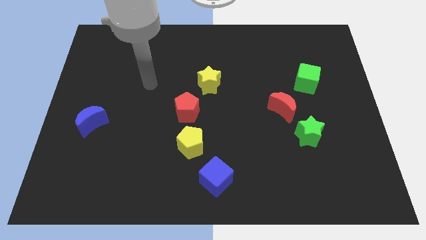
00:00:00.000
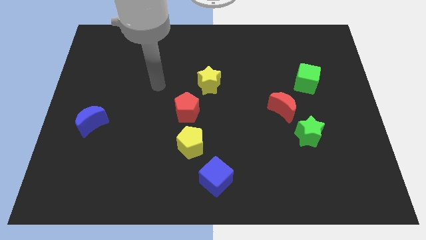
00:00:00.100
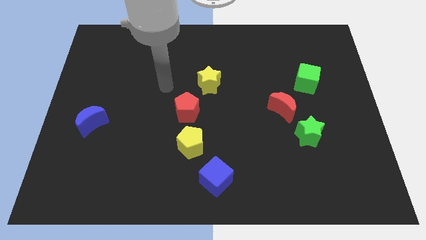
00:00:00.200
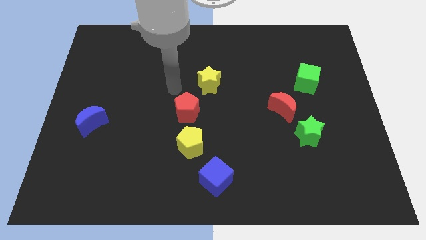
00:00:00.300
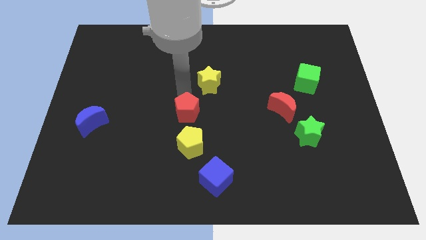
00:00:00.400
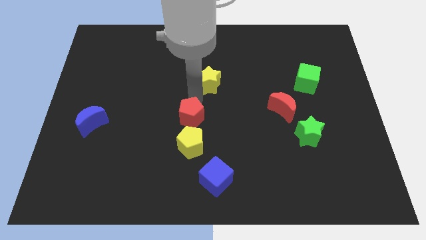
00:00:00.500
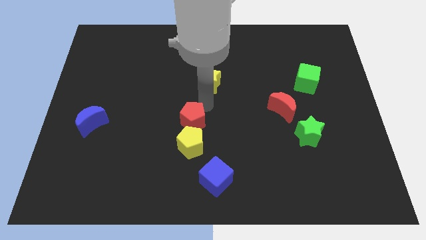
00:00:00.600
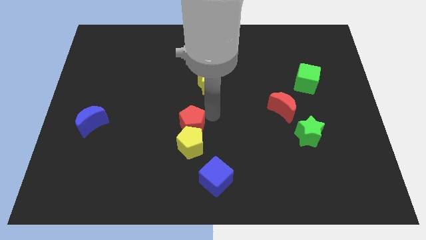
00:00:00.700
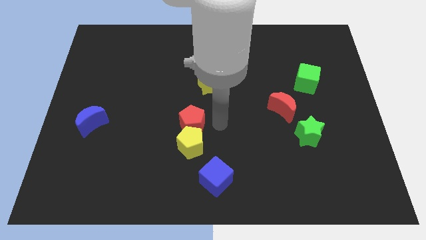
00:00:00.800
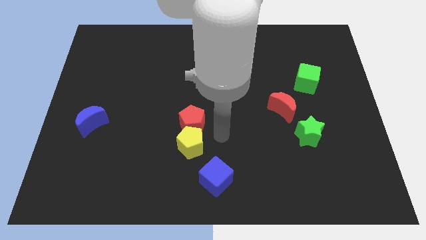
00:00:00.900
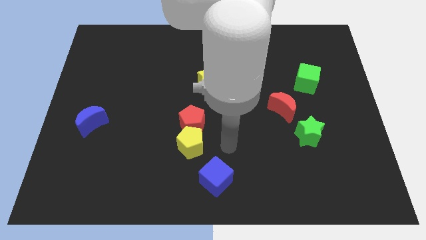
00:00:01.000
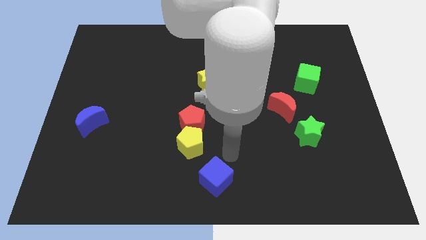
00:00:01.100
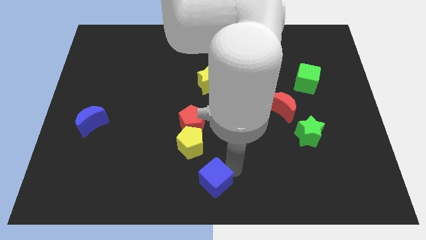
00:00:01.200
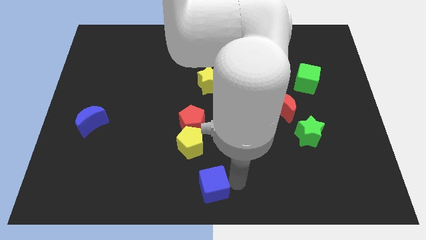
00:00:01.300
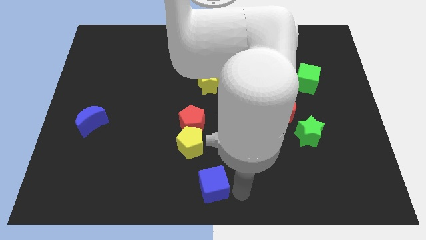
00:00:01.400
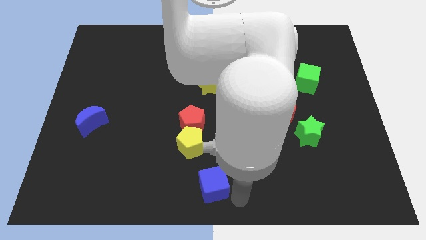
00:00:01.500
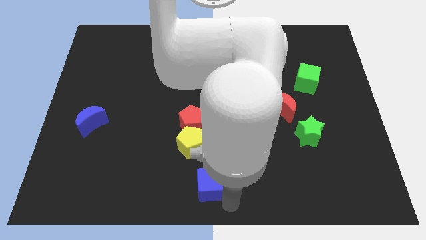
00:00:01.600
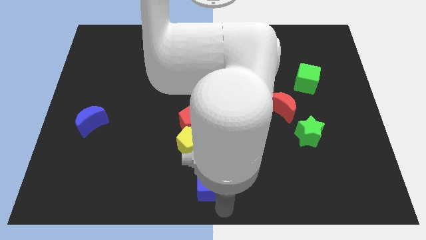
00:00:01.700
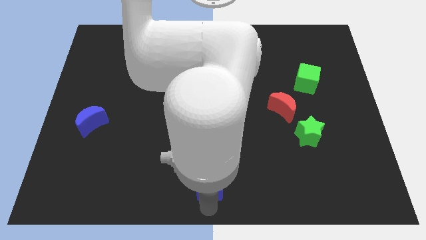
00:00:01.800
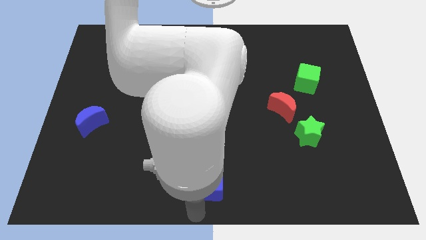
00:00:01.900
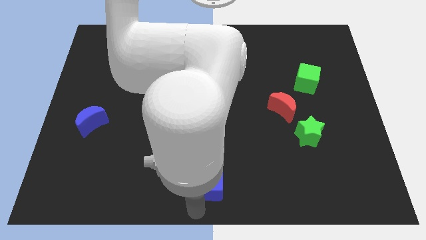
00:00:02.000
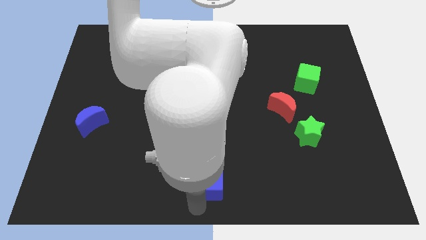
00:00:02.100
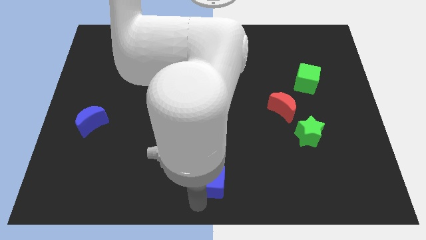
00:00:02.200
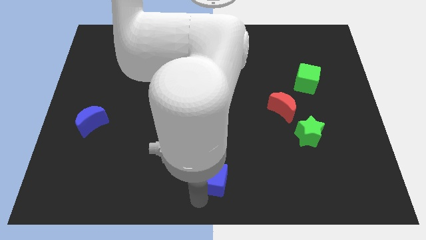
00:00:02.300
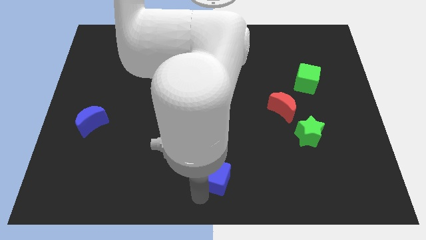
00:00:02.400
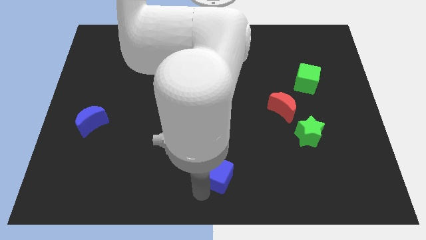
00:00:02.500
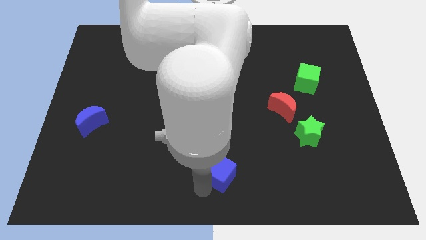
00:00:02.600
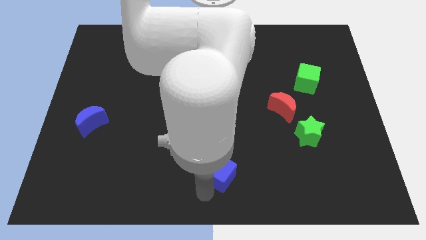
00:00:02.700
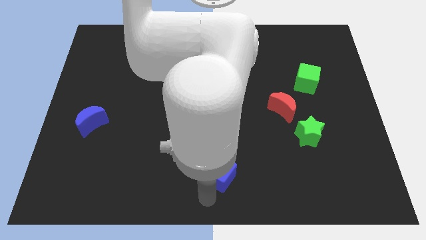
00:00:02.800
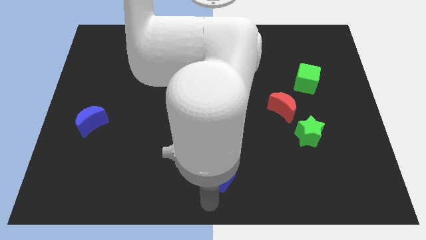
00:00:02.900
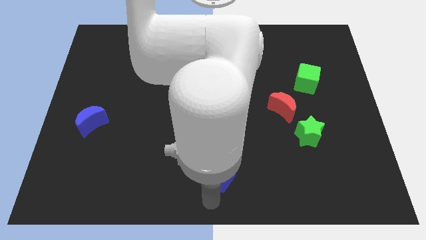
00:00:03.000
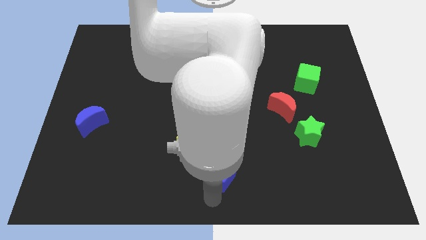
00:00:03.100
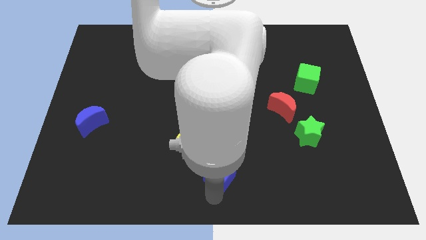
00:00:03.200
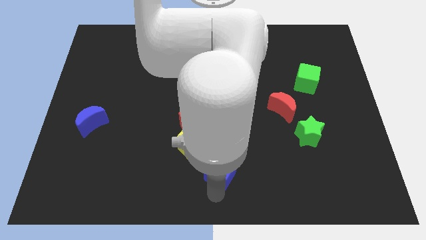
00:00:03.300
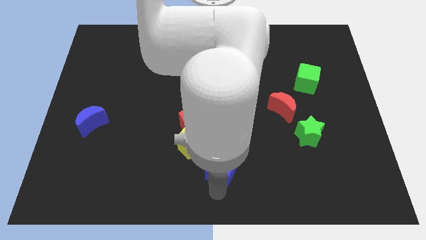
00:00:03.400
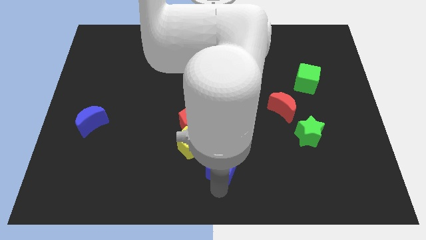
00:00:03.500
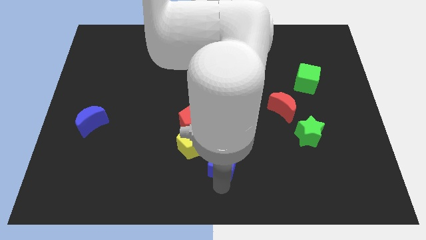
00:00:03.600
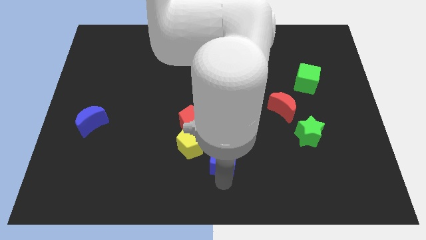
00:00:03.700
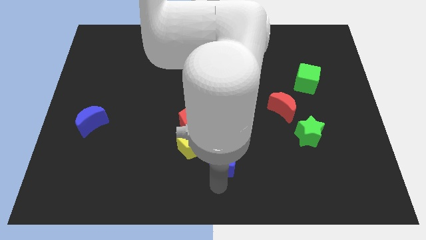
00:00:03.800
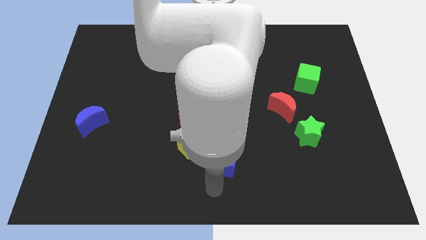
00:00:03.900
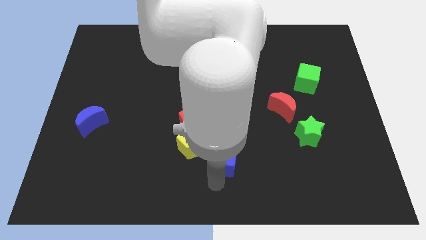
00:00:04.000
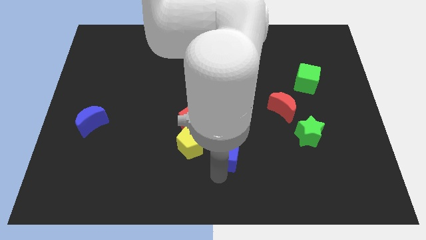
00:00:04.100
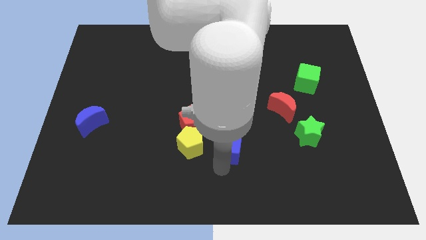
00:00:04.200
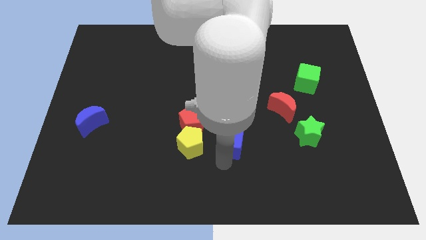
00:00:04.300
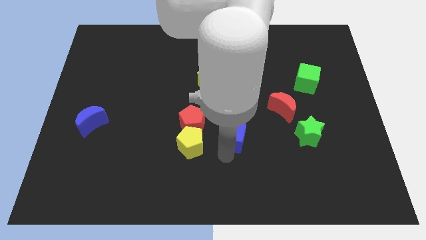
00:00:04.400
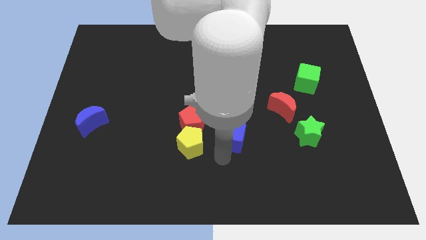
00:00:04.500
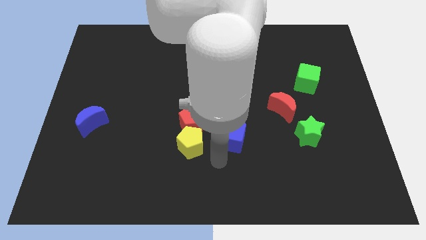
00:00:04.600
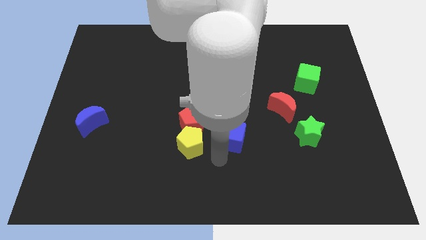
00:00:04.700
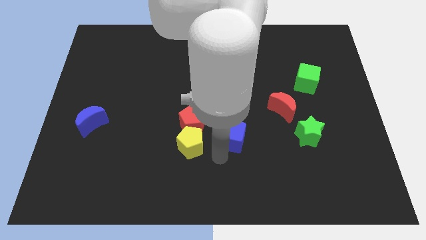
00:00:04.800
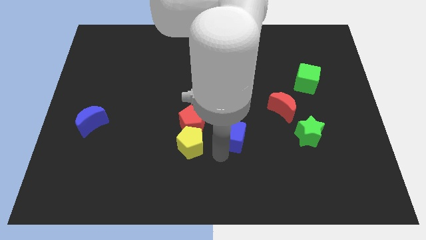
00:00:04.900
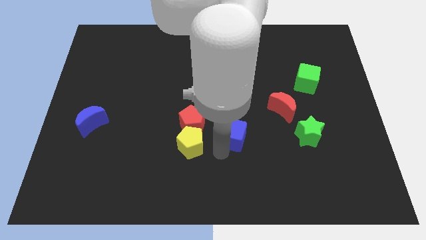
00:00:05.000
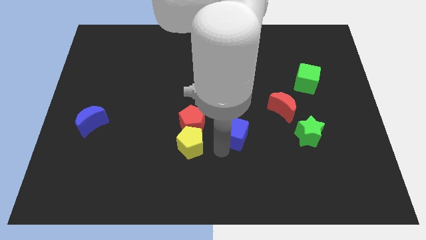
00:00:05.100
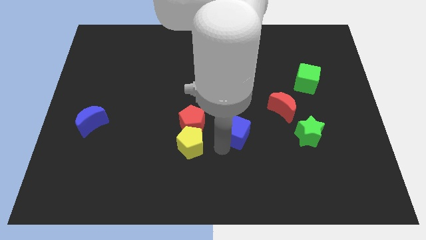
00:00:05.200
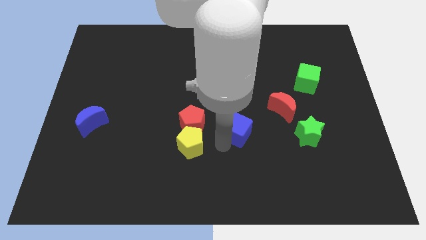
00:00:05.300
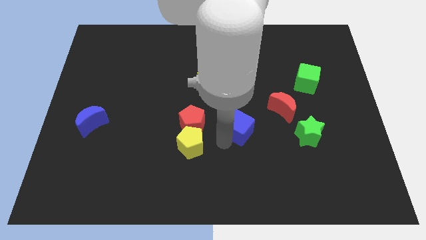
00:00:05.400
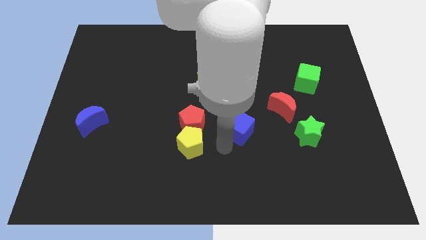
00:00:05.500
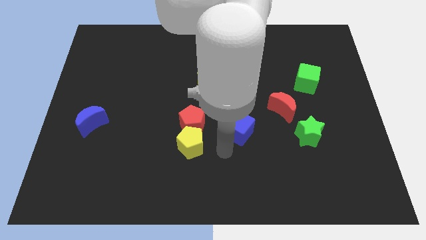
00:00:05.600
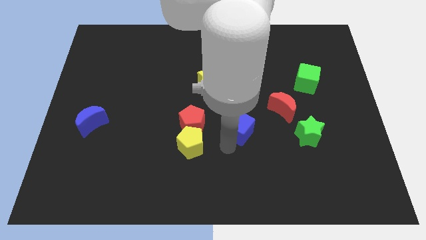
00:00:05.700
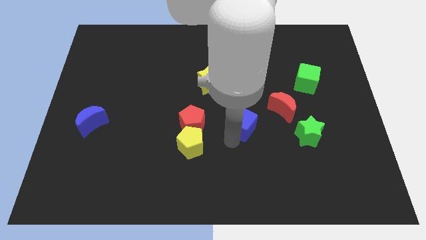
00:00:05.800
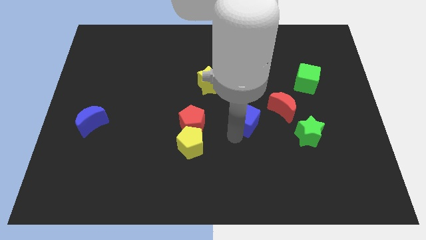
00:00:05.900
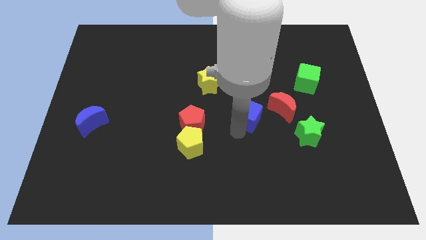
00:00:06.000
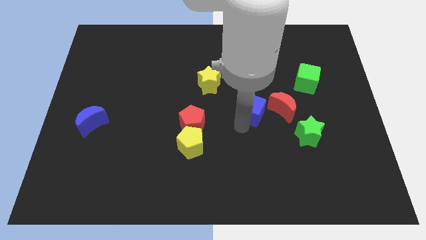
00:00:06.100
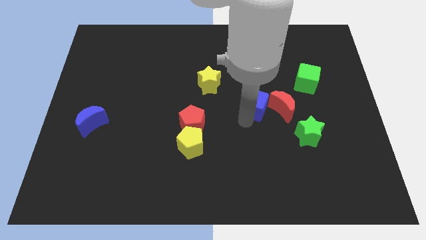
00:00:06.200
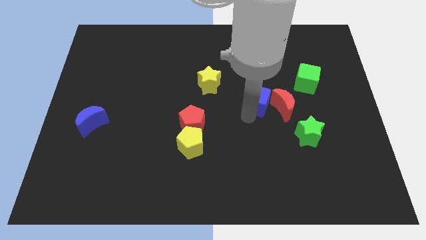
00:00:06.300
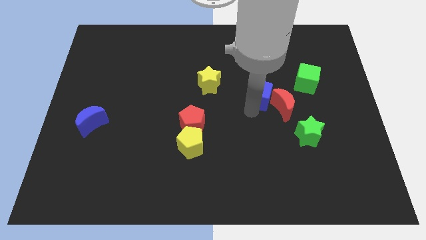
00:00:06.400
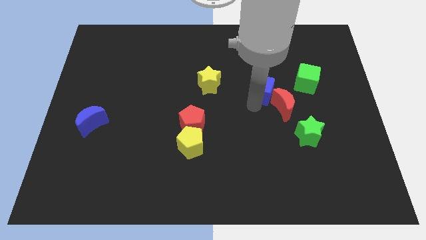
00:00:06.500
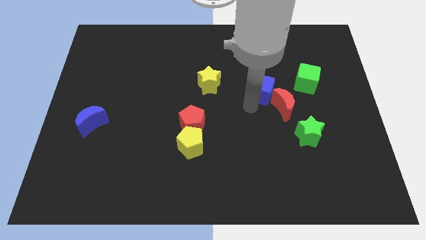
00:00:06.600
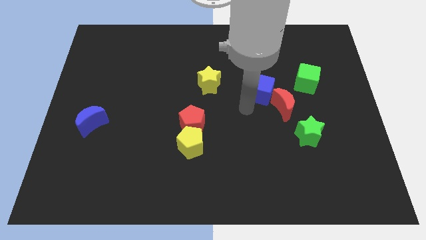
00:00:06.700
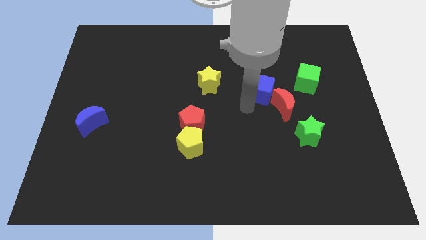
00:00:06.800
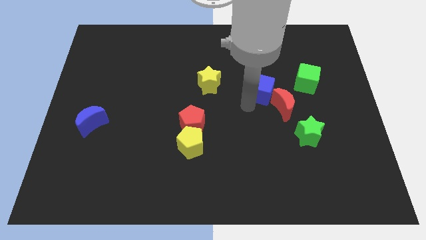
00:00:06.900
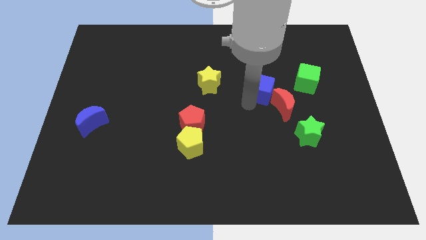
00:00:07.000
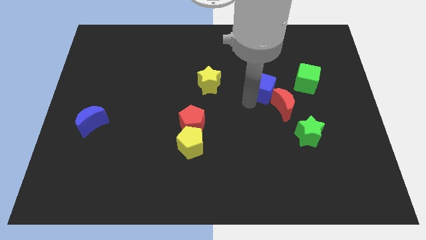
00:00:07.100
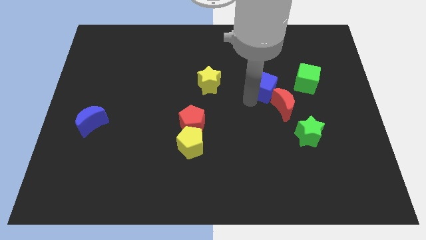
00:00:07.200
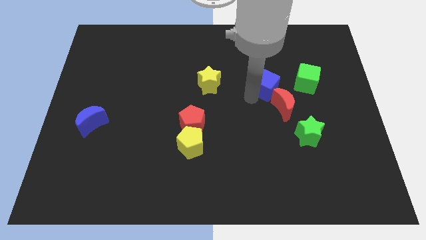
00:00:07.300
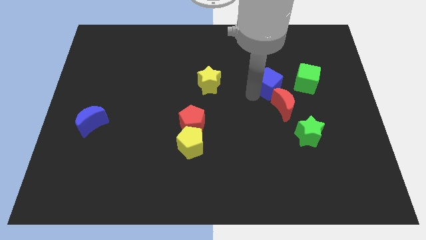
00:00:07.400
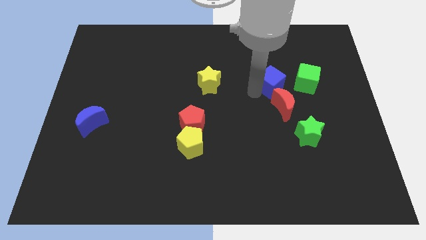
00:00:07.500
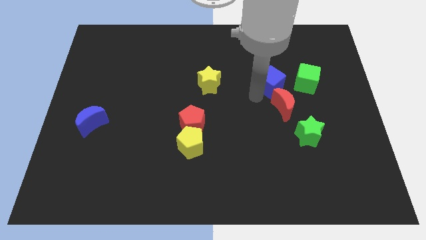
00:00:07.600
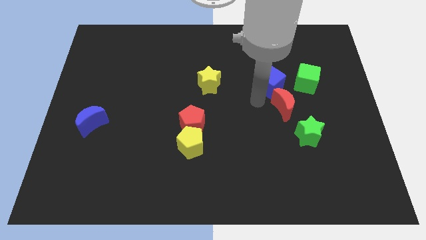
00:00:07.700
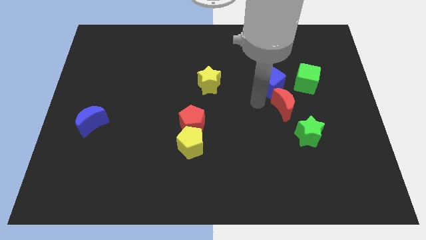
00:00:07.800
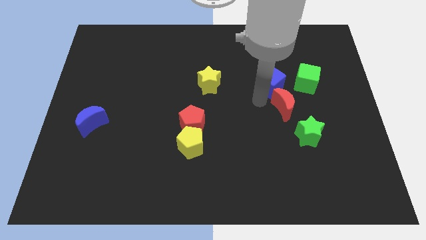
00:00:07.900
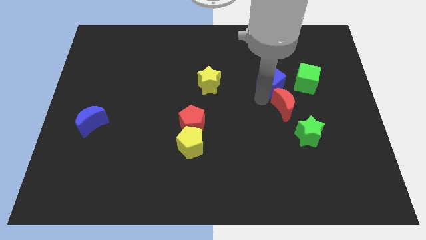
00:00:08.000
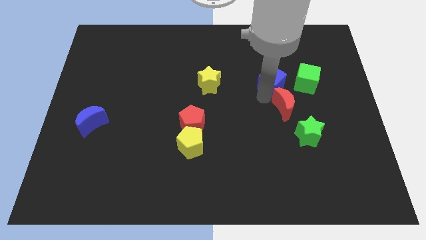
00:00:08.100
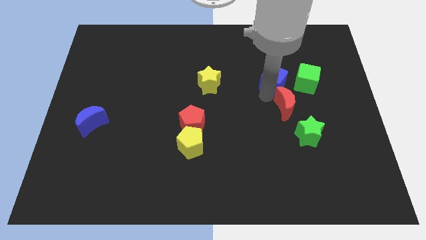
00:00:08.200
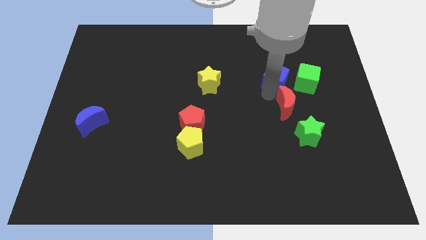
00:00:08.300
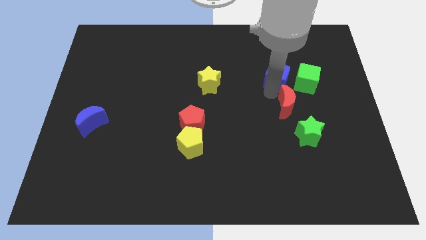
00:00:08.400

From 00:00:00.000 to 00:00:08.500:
slide the blue cube to the top left of the green cube
